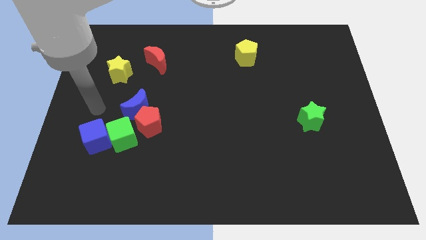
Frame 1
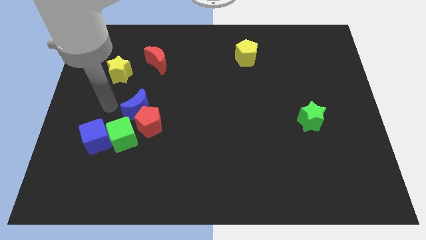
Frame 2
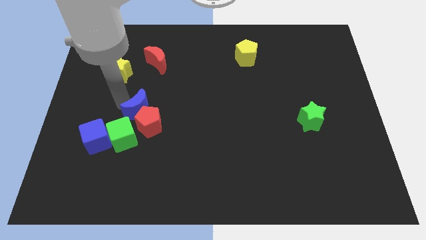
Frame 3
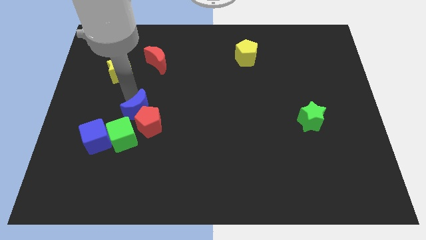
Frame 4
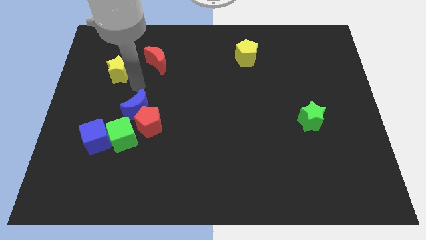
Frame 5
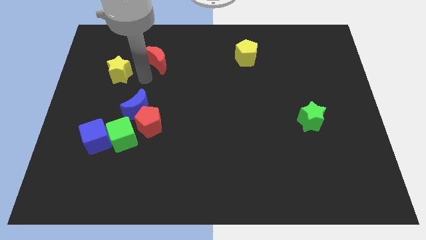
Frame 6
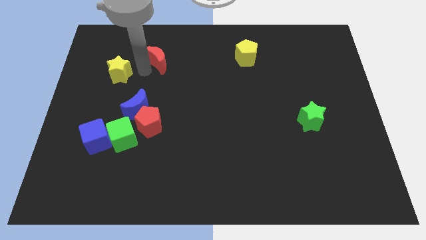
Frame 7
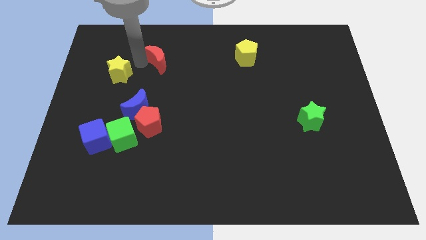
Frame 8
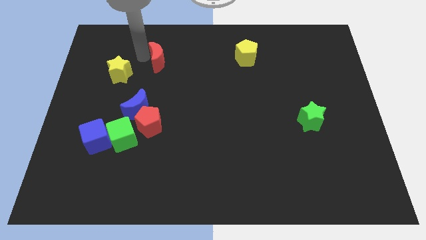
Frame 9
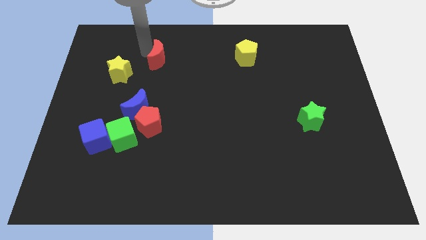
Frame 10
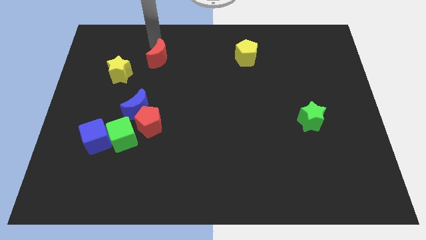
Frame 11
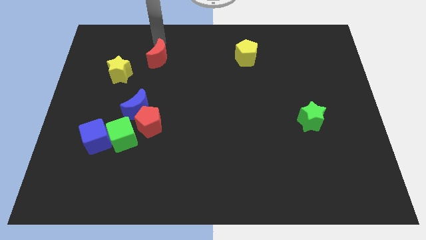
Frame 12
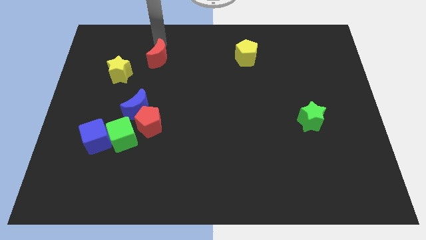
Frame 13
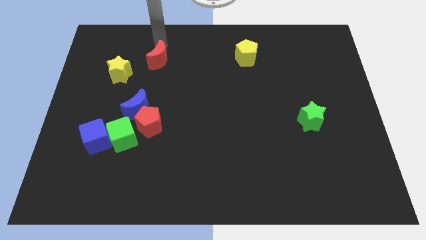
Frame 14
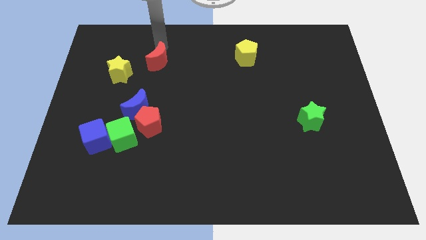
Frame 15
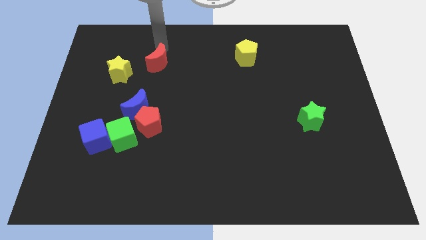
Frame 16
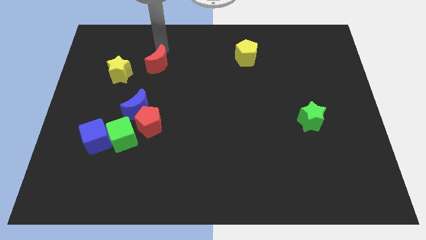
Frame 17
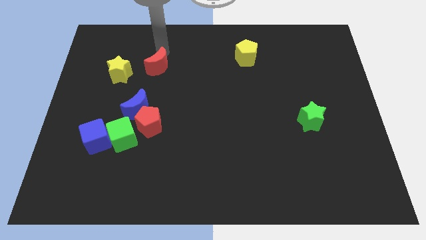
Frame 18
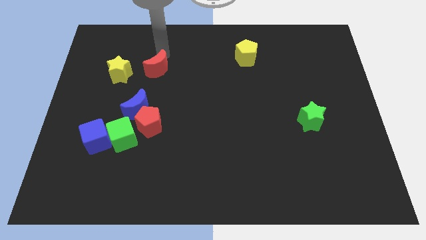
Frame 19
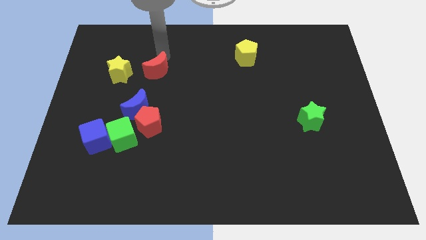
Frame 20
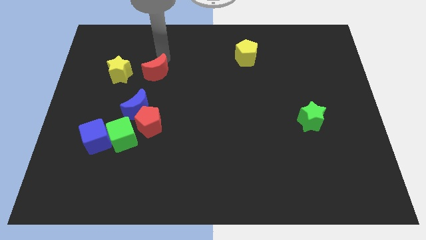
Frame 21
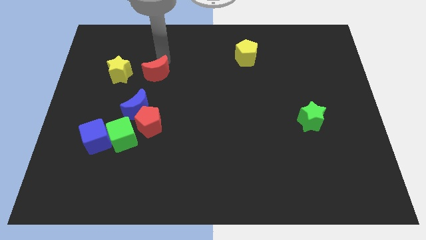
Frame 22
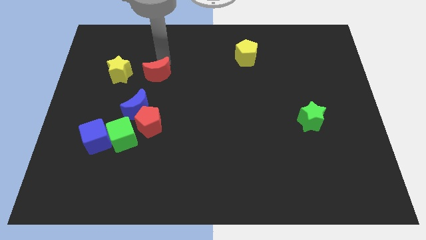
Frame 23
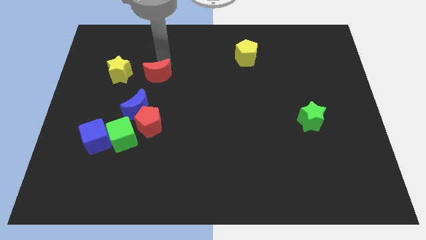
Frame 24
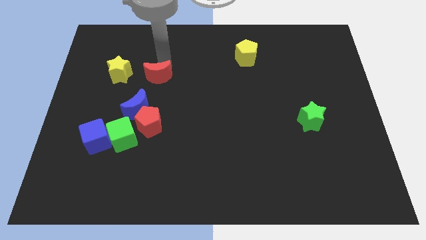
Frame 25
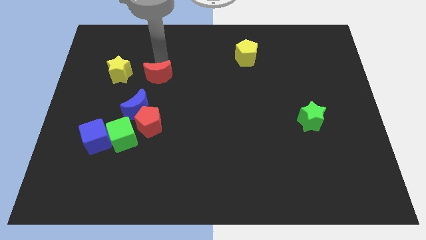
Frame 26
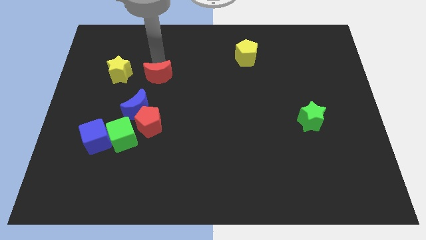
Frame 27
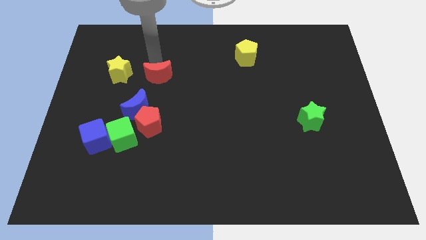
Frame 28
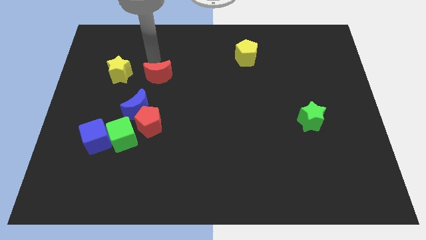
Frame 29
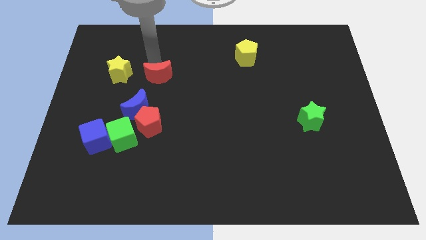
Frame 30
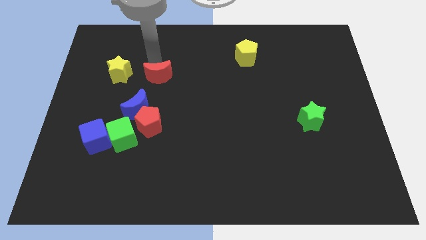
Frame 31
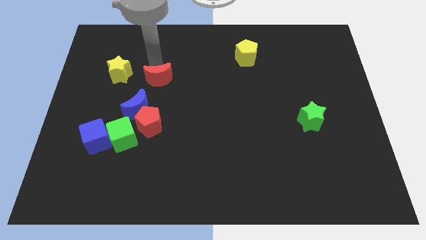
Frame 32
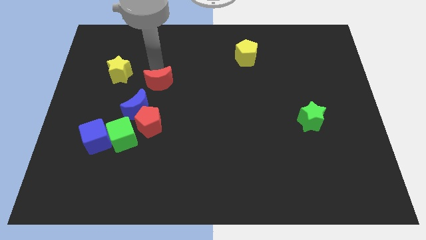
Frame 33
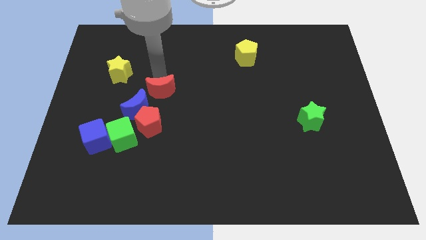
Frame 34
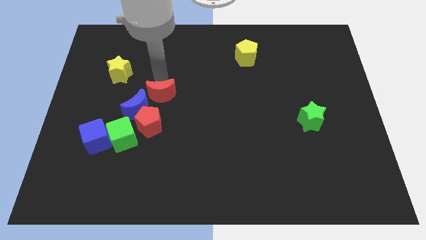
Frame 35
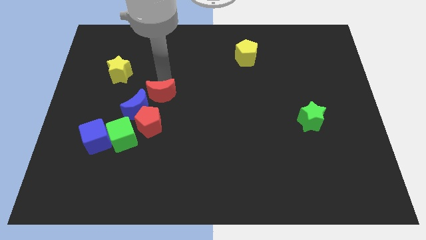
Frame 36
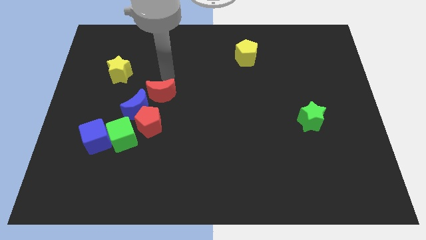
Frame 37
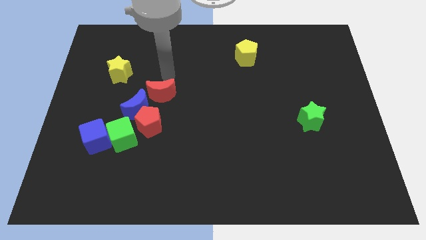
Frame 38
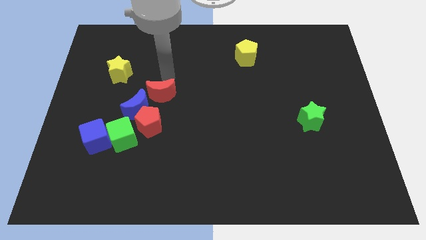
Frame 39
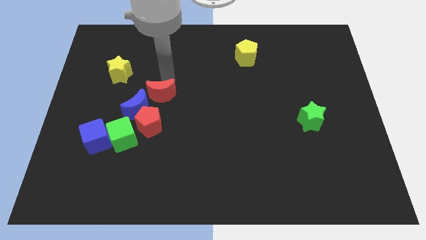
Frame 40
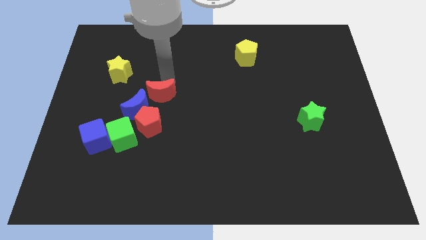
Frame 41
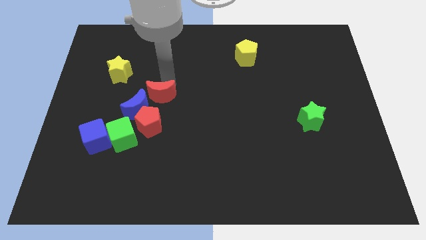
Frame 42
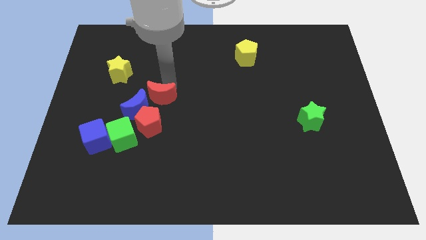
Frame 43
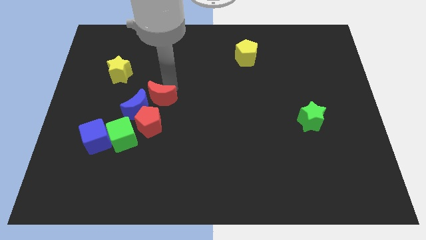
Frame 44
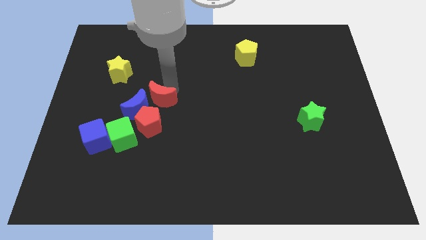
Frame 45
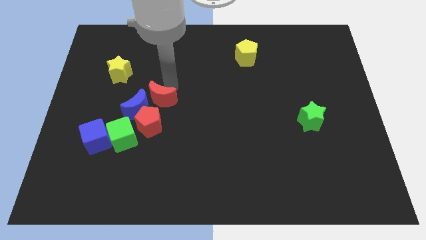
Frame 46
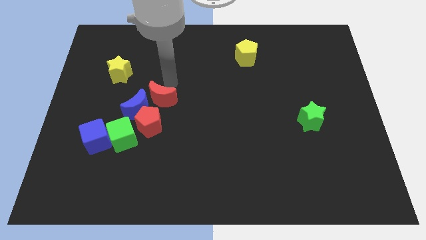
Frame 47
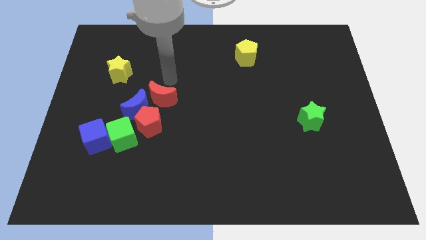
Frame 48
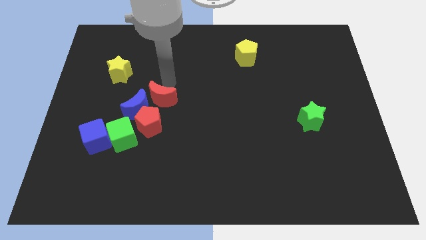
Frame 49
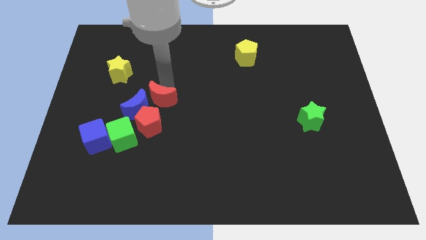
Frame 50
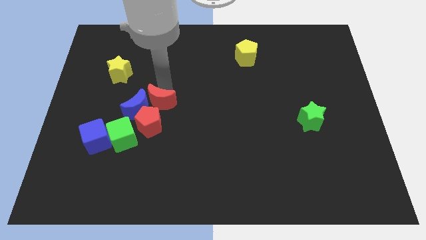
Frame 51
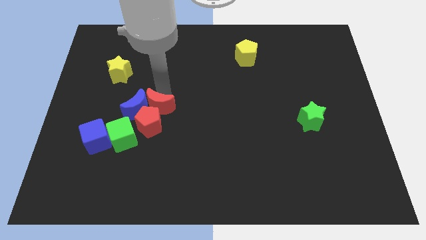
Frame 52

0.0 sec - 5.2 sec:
put the red moon towards the red pentagon

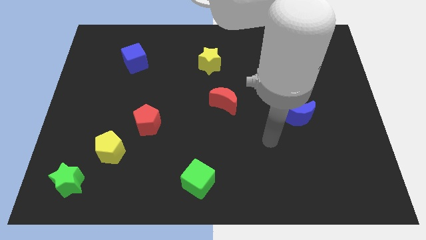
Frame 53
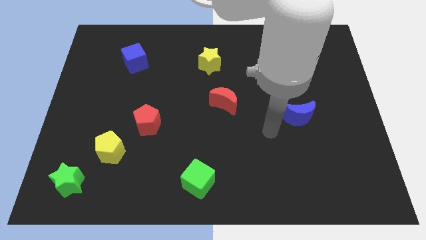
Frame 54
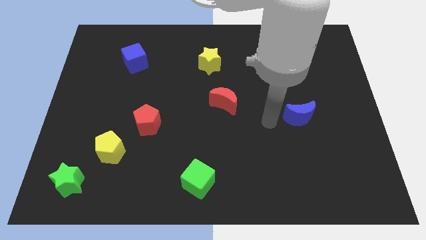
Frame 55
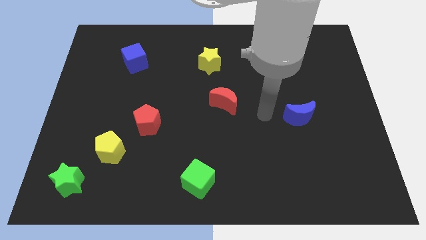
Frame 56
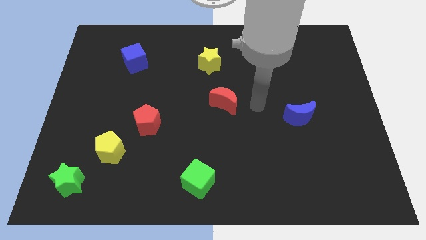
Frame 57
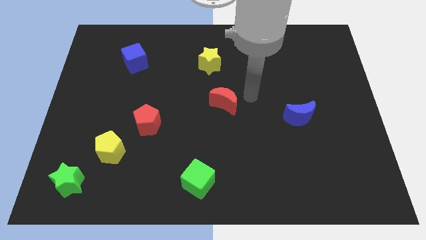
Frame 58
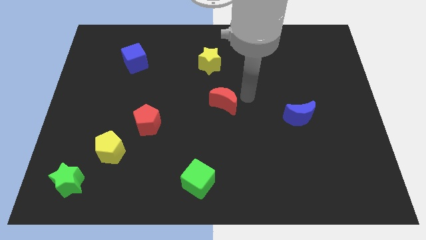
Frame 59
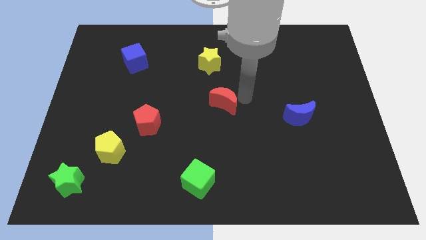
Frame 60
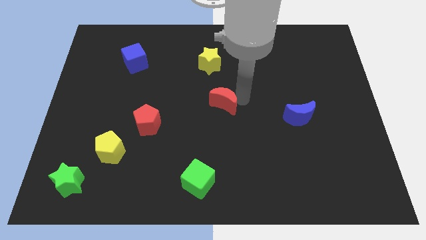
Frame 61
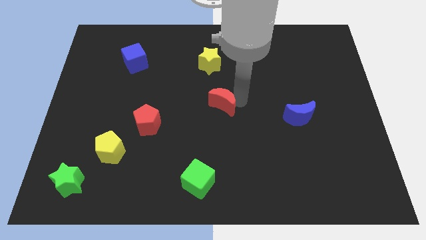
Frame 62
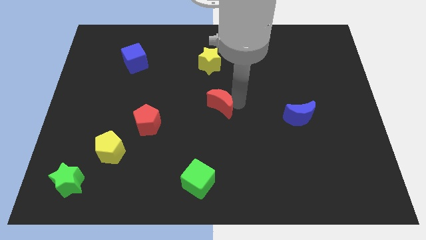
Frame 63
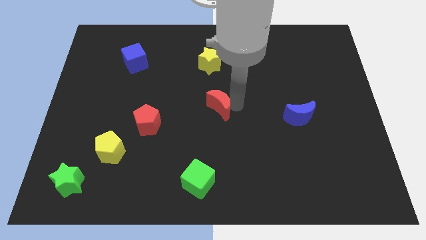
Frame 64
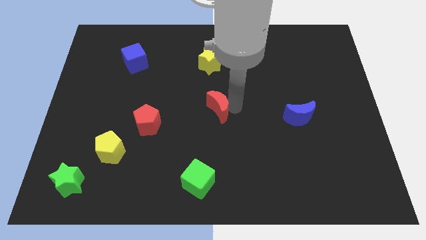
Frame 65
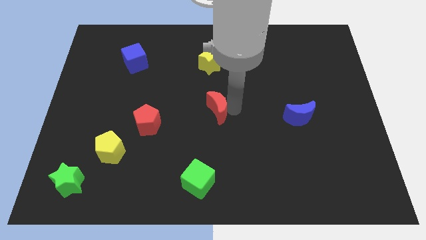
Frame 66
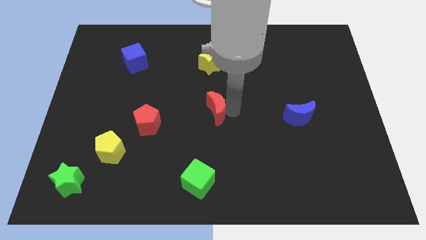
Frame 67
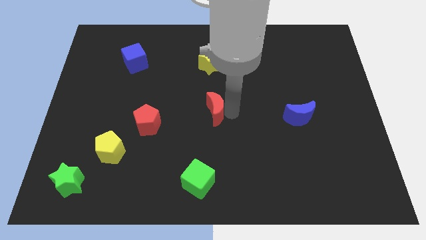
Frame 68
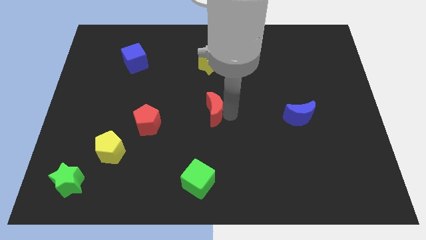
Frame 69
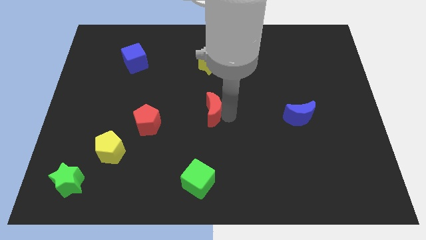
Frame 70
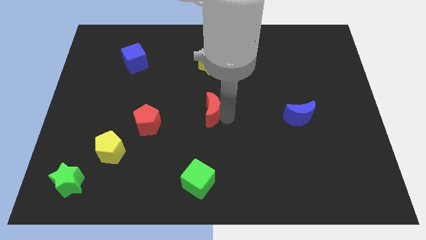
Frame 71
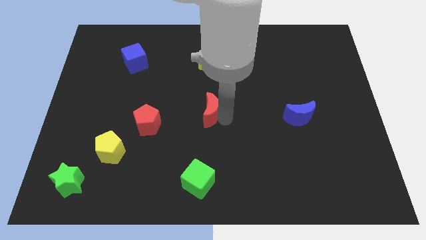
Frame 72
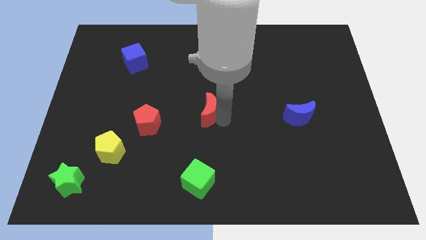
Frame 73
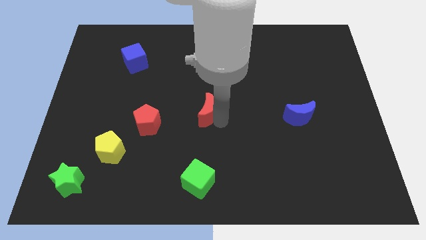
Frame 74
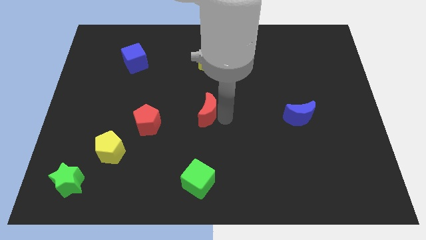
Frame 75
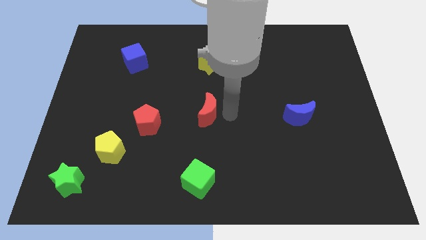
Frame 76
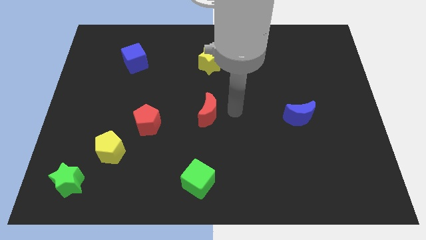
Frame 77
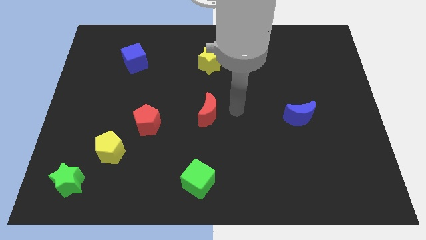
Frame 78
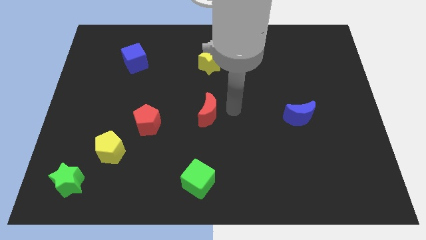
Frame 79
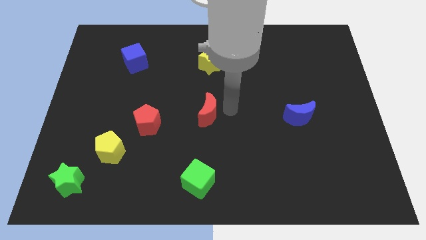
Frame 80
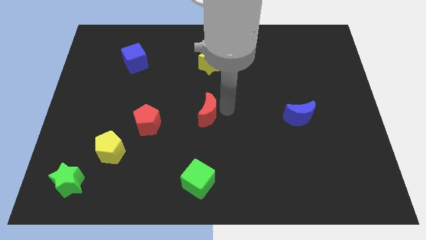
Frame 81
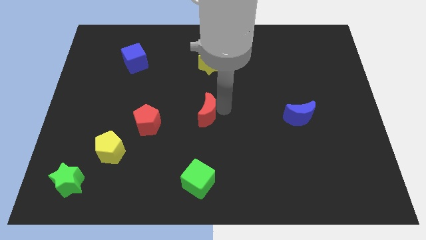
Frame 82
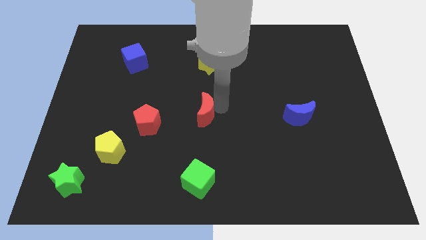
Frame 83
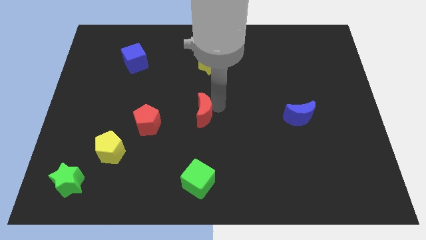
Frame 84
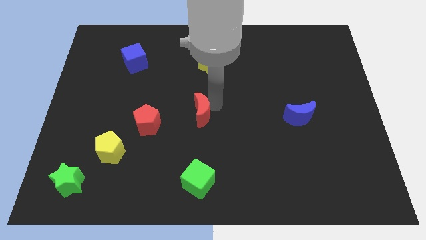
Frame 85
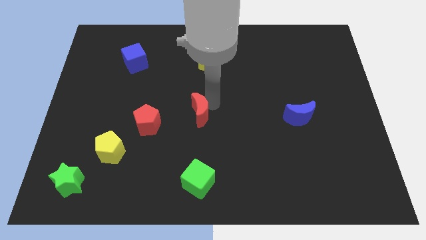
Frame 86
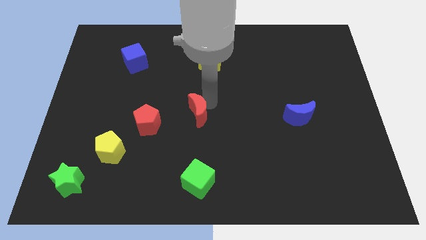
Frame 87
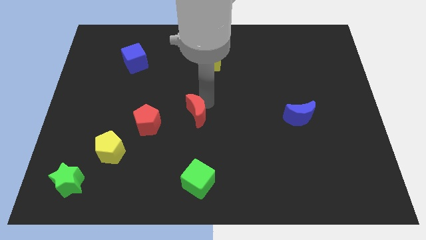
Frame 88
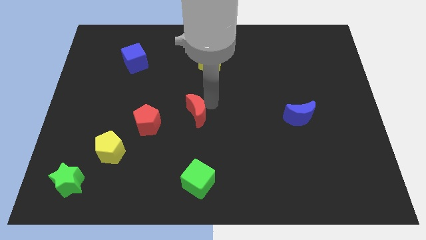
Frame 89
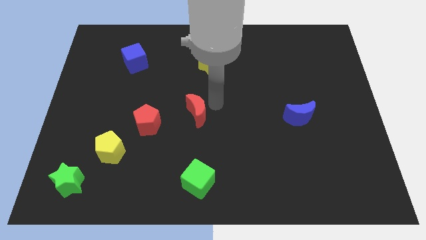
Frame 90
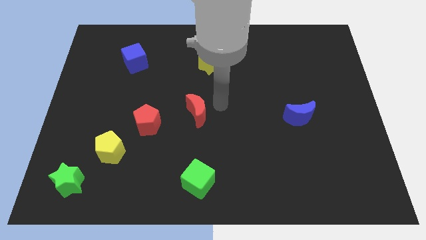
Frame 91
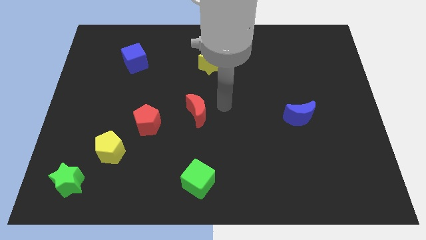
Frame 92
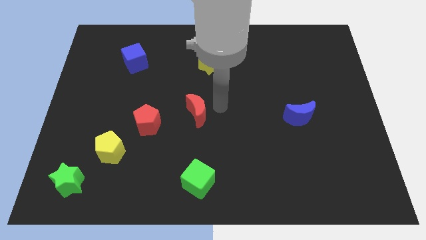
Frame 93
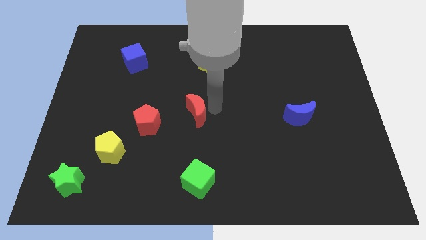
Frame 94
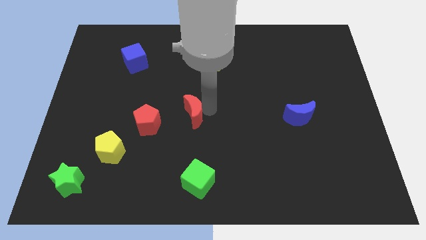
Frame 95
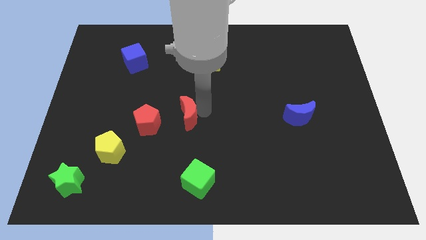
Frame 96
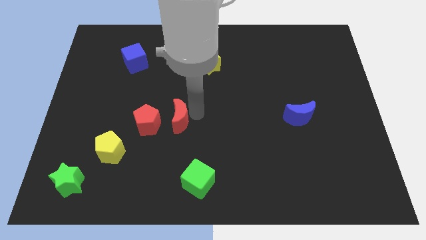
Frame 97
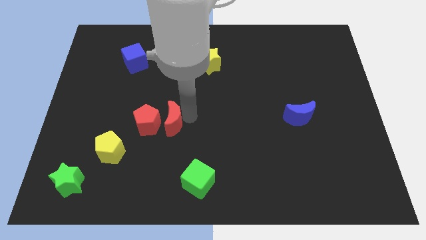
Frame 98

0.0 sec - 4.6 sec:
put the red moon to the red pentagon
